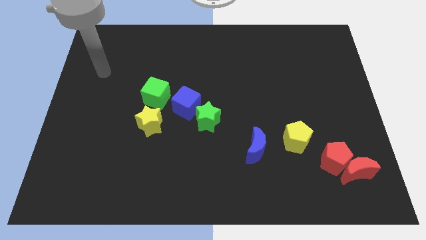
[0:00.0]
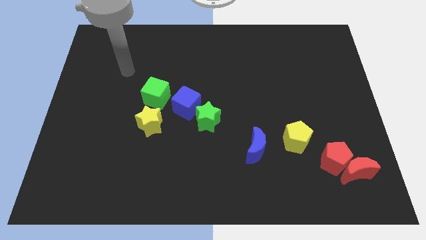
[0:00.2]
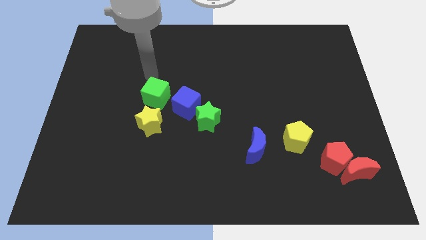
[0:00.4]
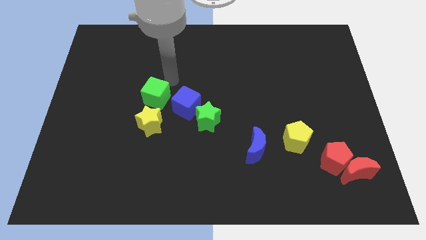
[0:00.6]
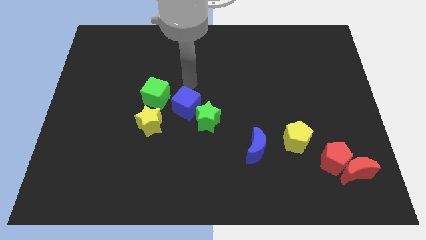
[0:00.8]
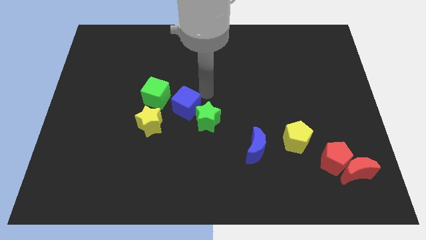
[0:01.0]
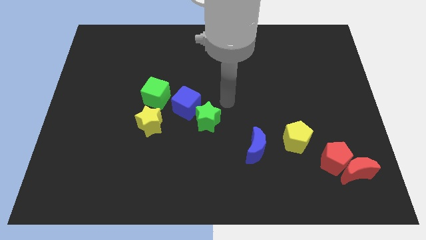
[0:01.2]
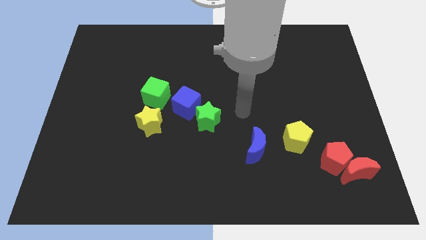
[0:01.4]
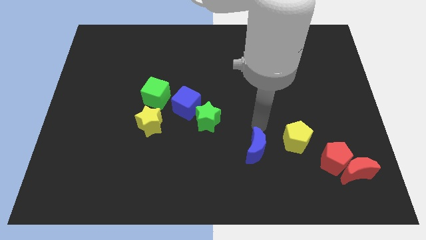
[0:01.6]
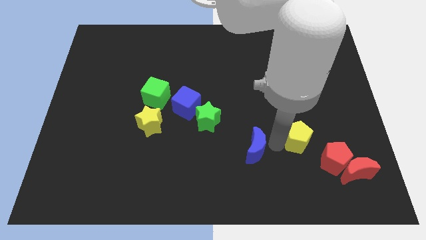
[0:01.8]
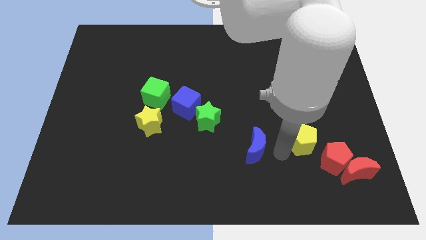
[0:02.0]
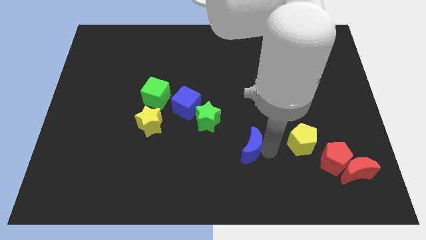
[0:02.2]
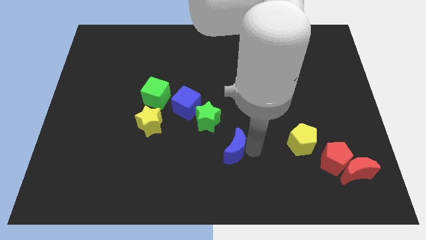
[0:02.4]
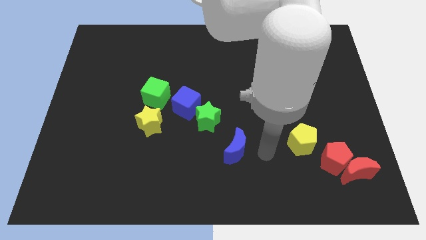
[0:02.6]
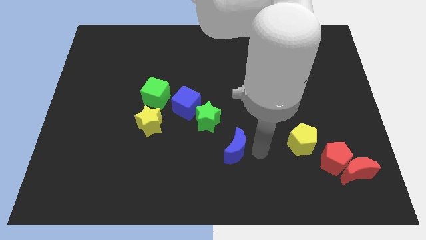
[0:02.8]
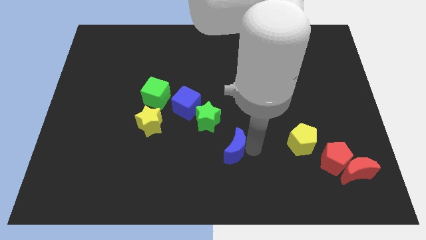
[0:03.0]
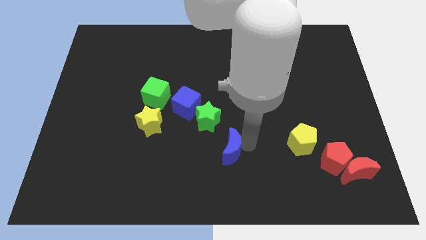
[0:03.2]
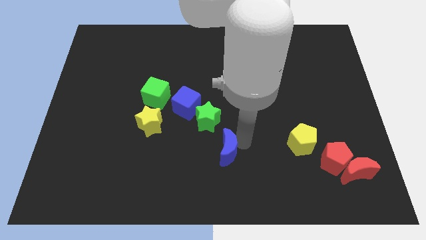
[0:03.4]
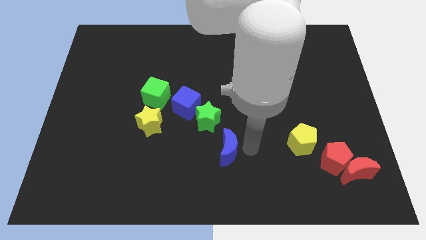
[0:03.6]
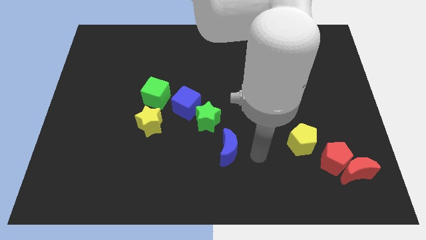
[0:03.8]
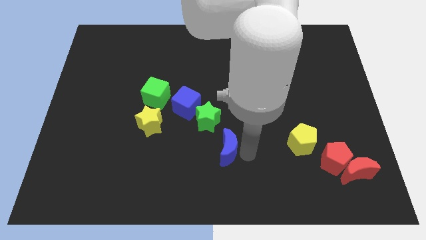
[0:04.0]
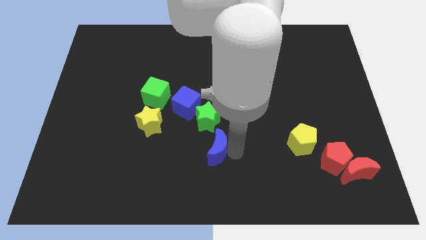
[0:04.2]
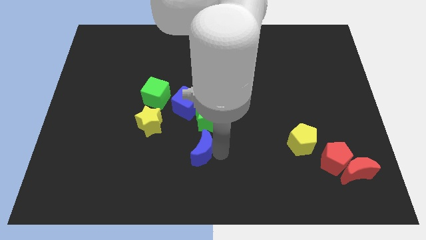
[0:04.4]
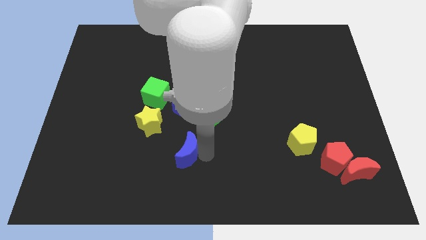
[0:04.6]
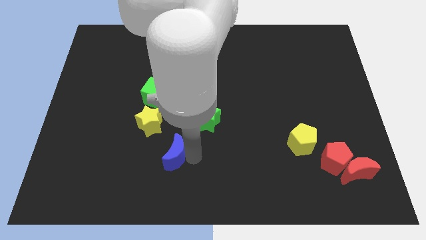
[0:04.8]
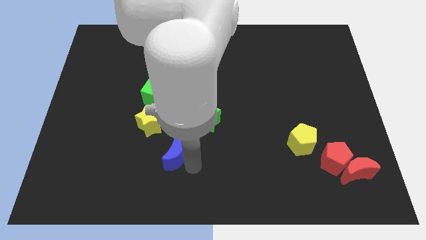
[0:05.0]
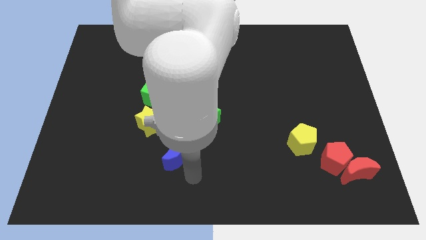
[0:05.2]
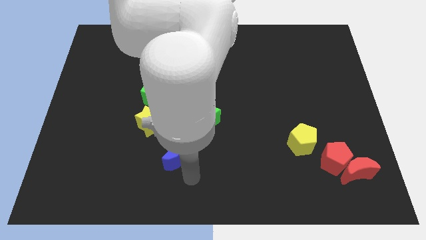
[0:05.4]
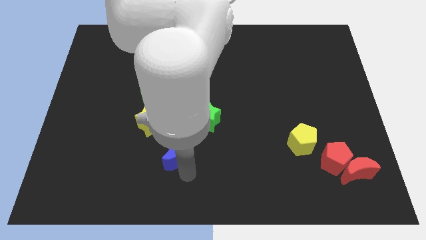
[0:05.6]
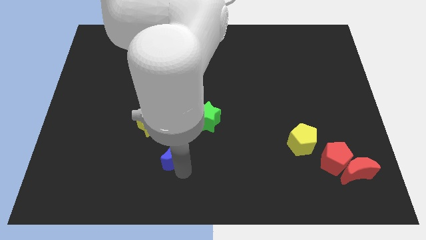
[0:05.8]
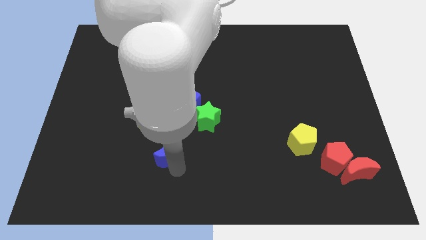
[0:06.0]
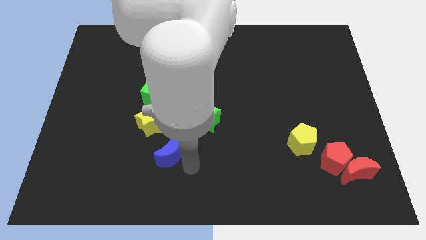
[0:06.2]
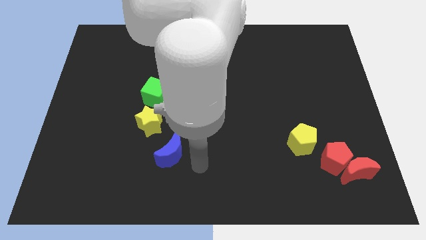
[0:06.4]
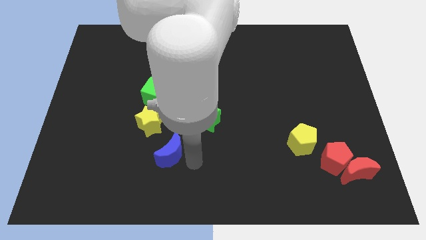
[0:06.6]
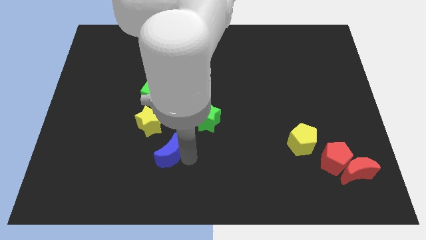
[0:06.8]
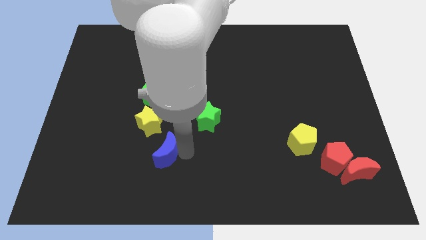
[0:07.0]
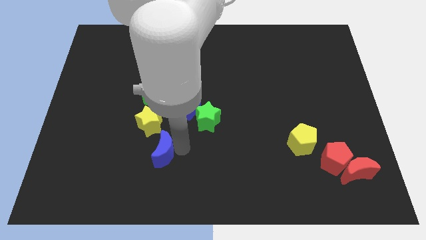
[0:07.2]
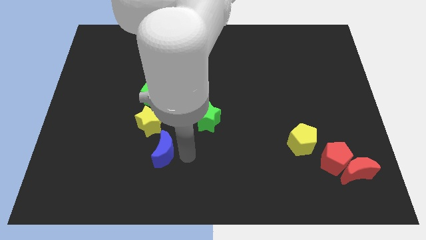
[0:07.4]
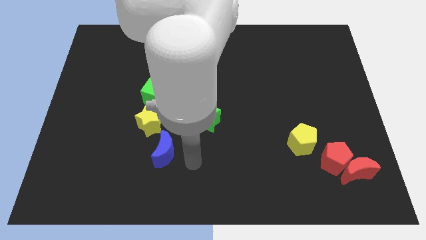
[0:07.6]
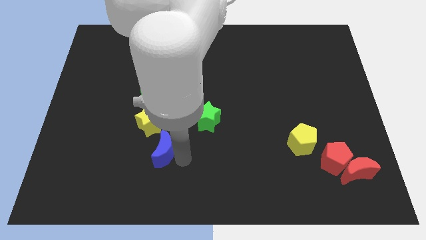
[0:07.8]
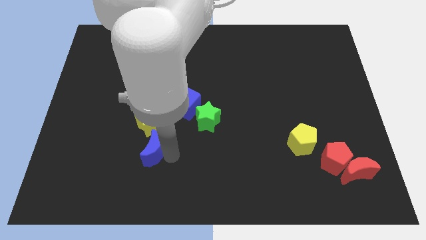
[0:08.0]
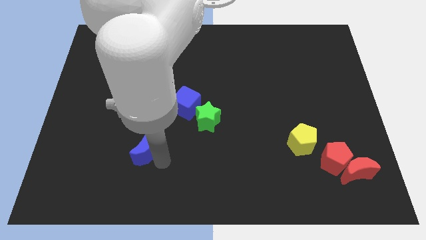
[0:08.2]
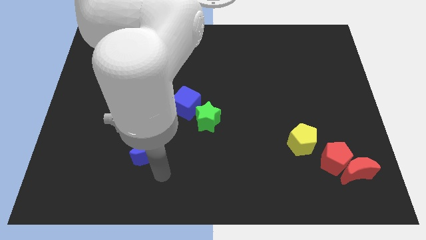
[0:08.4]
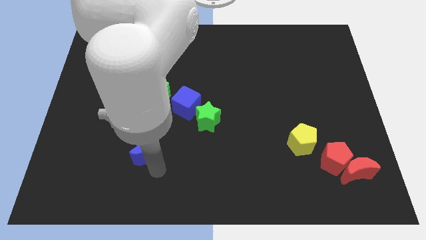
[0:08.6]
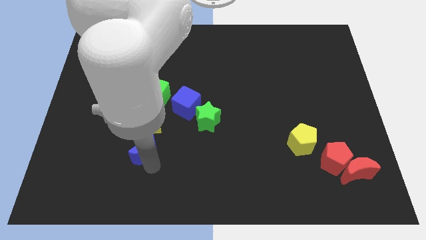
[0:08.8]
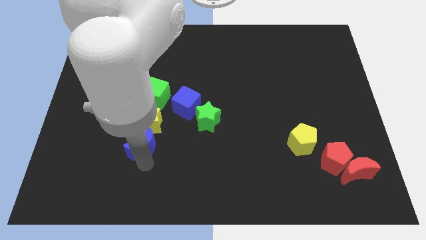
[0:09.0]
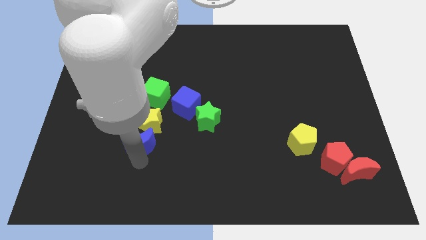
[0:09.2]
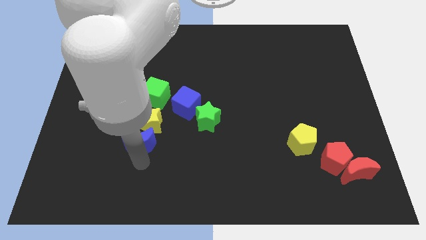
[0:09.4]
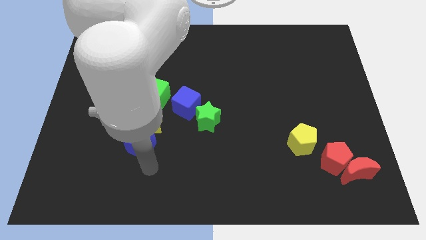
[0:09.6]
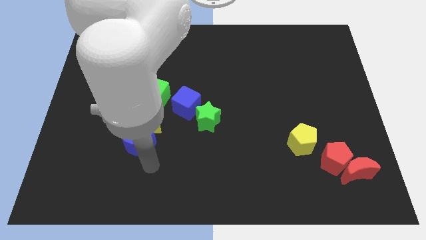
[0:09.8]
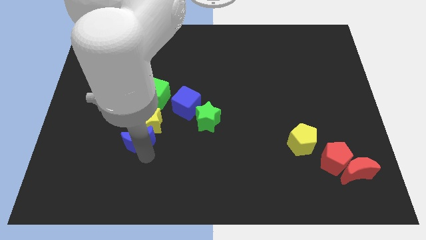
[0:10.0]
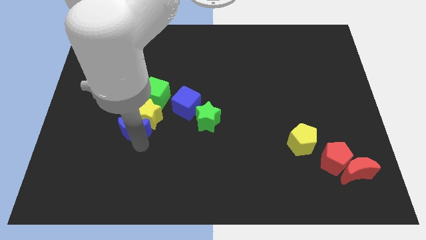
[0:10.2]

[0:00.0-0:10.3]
put the blue moon to the bottom left side of the green cube
